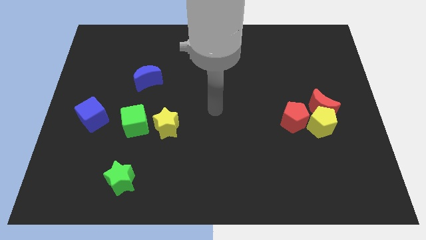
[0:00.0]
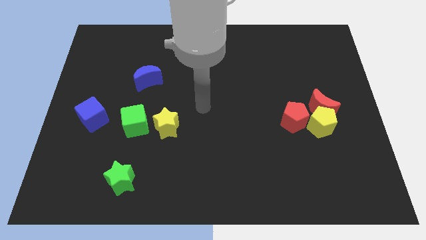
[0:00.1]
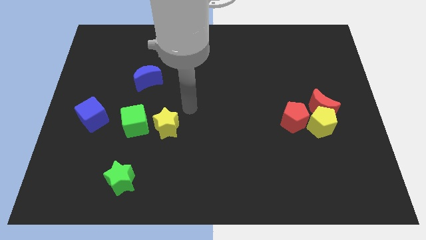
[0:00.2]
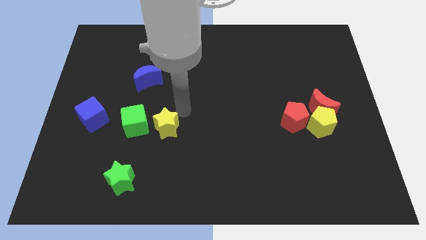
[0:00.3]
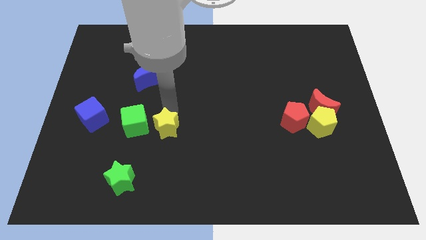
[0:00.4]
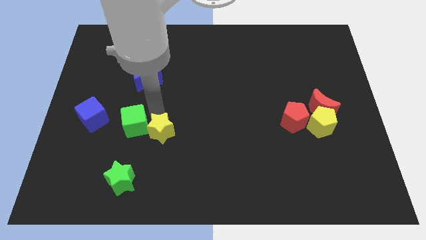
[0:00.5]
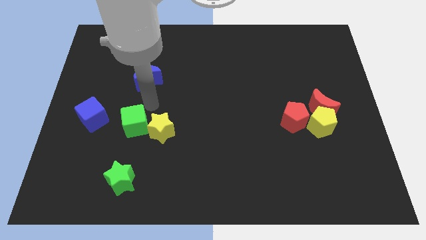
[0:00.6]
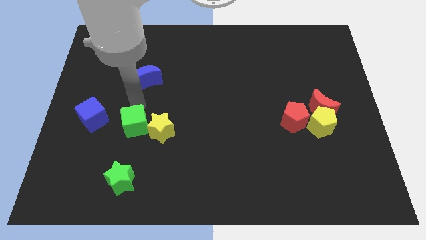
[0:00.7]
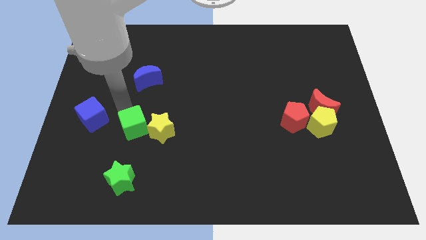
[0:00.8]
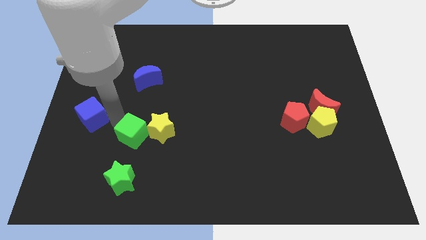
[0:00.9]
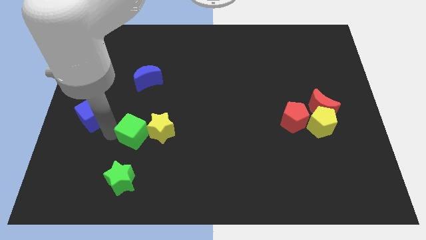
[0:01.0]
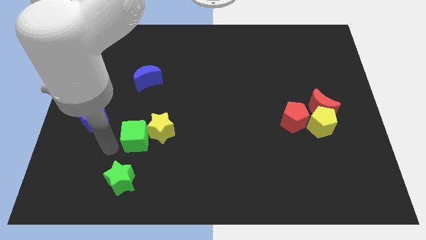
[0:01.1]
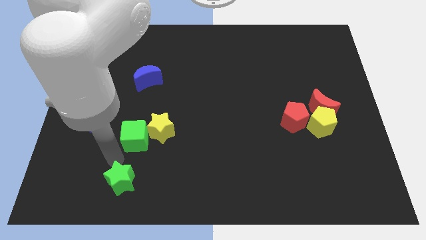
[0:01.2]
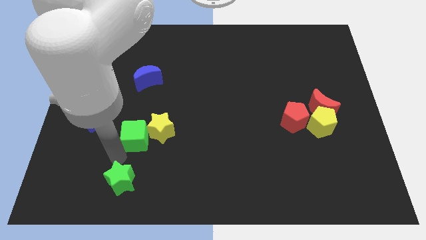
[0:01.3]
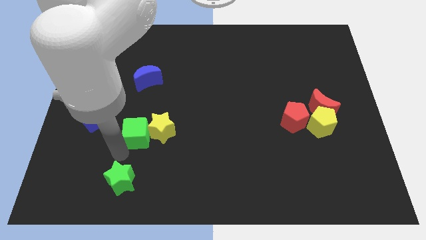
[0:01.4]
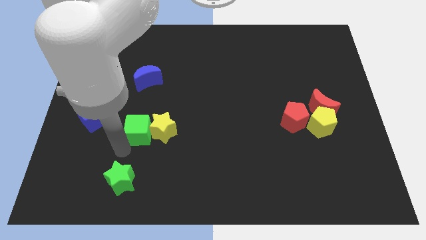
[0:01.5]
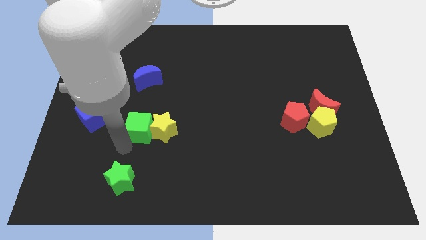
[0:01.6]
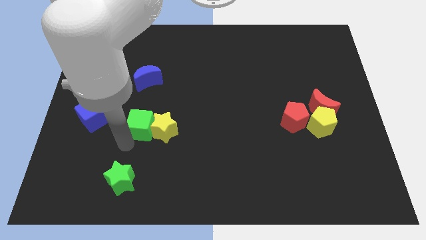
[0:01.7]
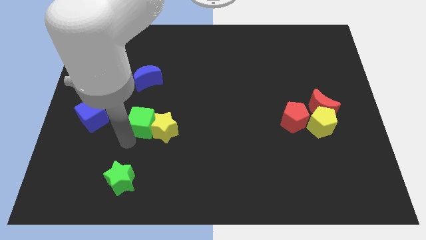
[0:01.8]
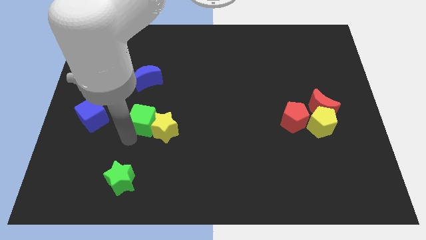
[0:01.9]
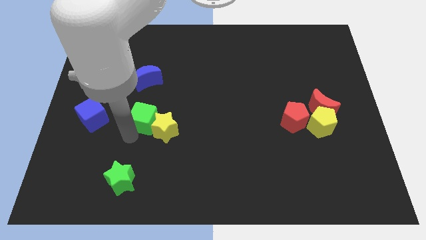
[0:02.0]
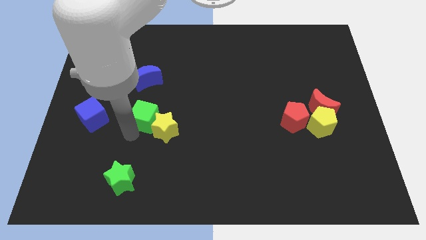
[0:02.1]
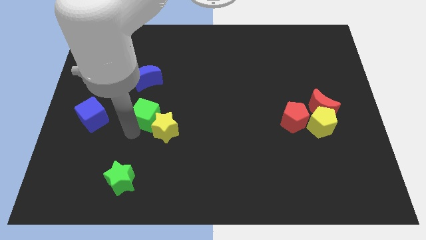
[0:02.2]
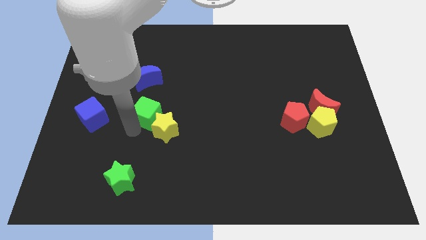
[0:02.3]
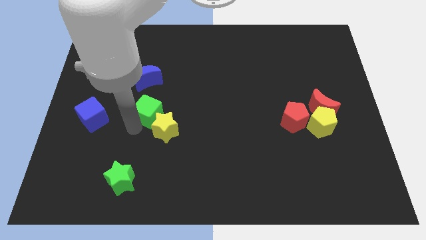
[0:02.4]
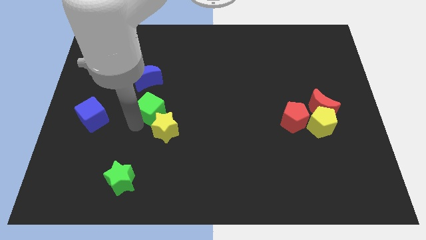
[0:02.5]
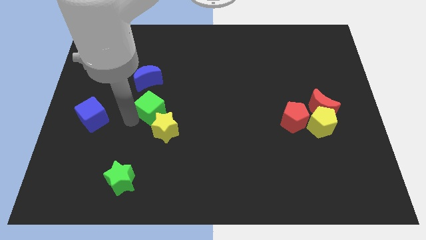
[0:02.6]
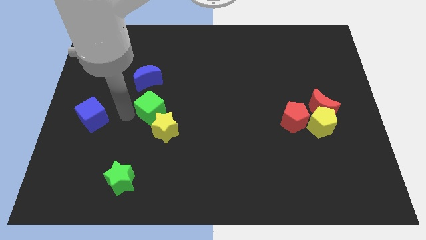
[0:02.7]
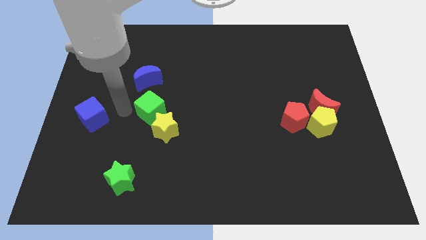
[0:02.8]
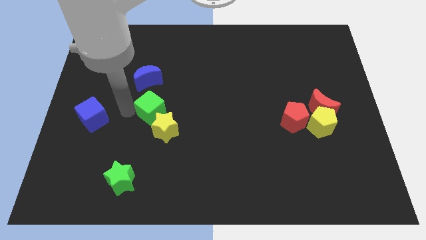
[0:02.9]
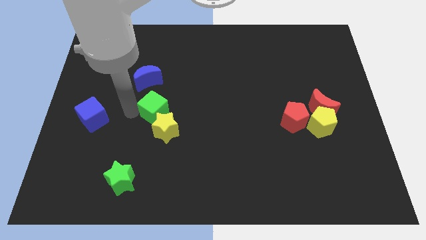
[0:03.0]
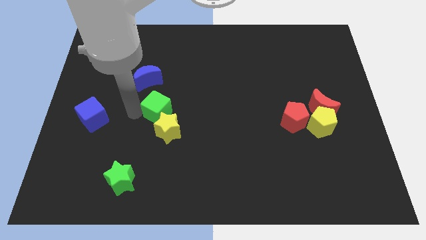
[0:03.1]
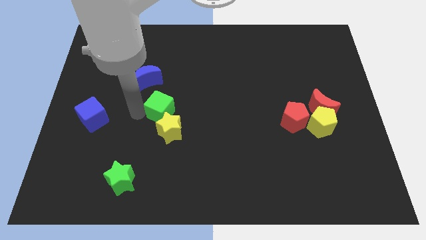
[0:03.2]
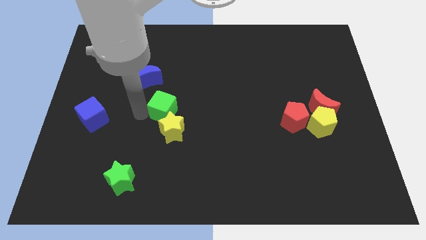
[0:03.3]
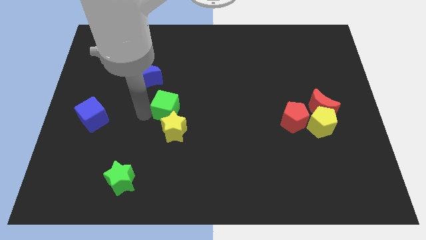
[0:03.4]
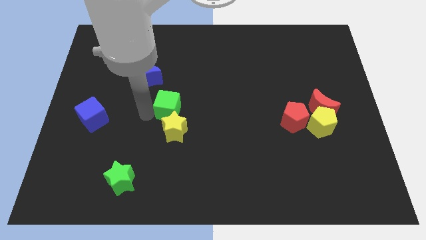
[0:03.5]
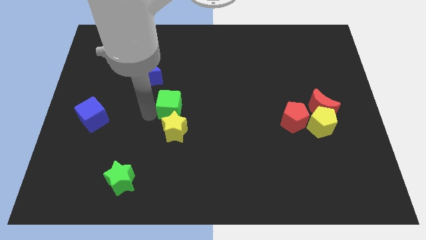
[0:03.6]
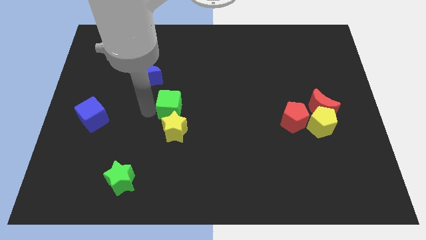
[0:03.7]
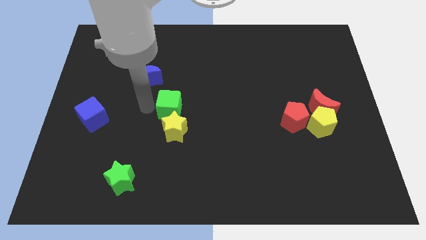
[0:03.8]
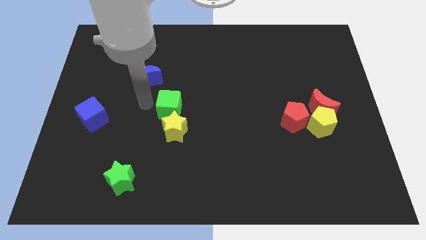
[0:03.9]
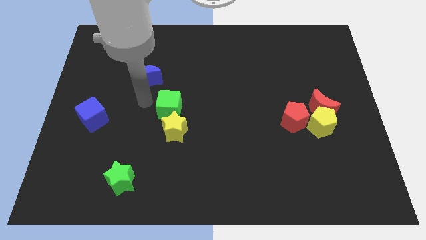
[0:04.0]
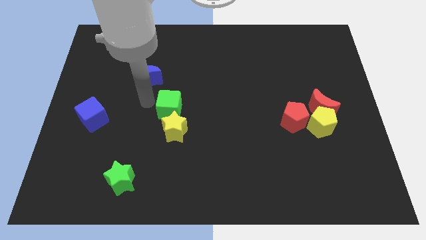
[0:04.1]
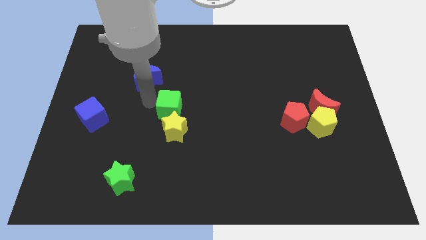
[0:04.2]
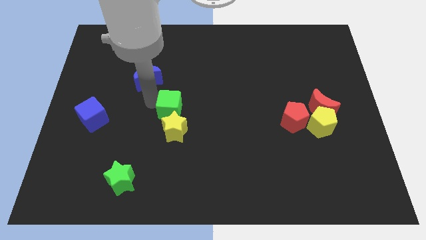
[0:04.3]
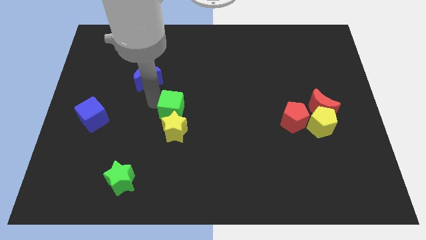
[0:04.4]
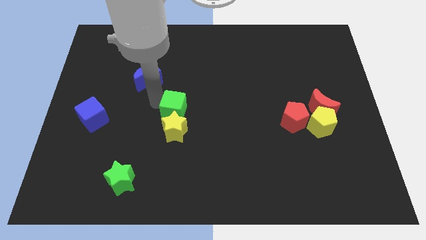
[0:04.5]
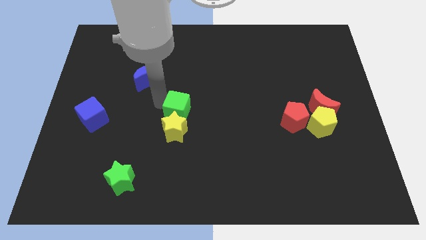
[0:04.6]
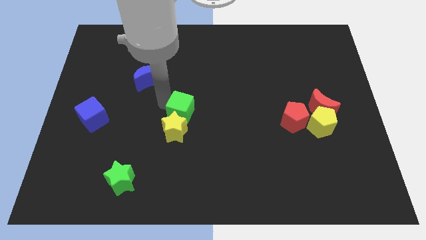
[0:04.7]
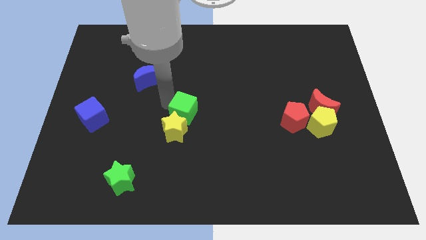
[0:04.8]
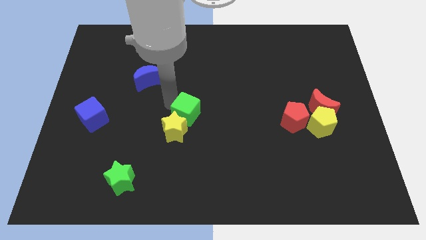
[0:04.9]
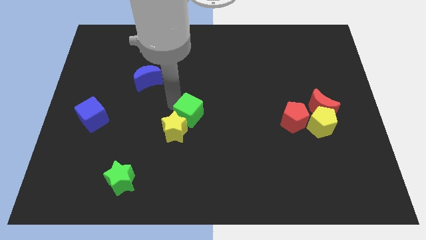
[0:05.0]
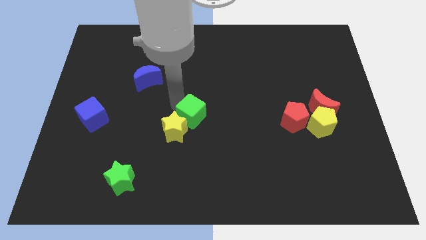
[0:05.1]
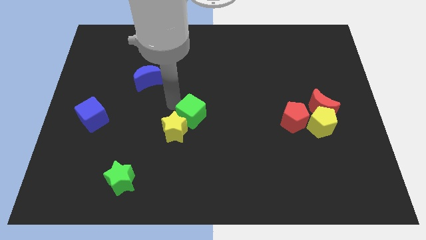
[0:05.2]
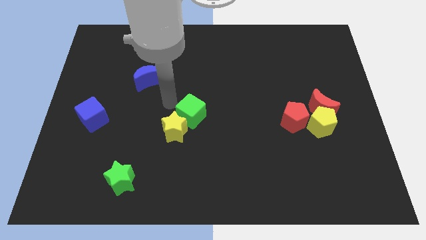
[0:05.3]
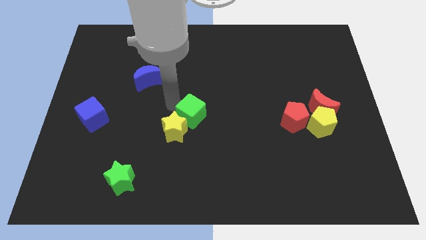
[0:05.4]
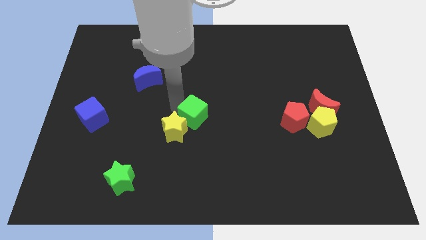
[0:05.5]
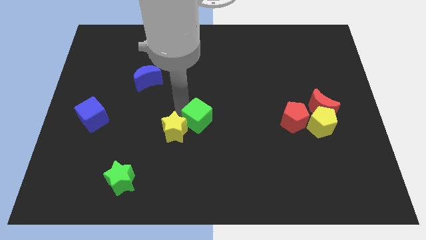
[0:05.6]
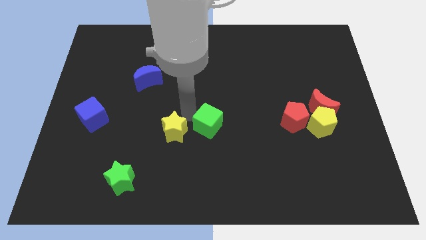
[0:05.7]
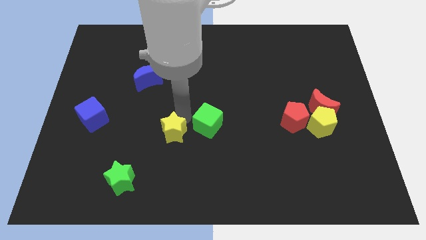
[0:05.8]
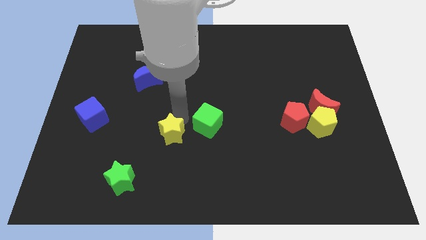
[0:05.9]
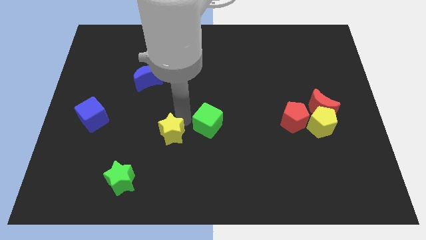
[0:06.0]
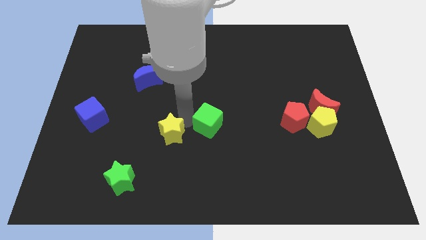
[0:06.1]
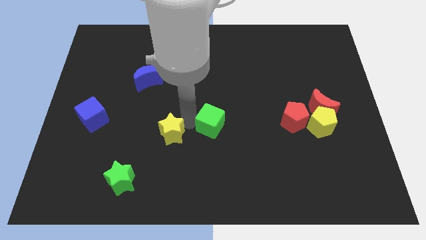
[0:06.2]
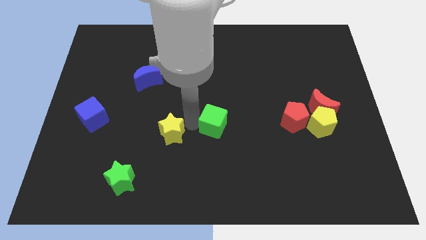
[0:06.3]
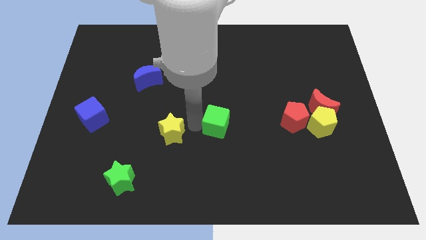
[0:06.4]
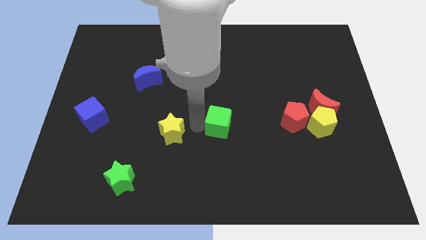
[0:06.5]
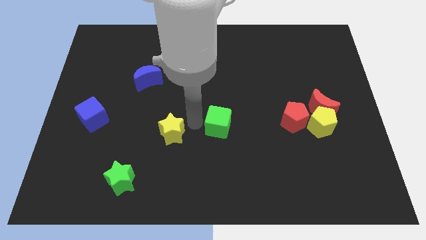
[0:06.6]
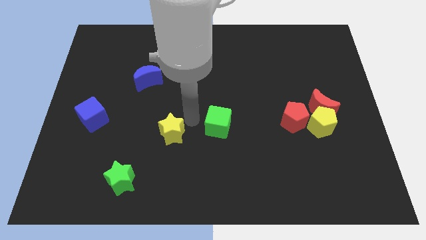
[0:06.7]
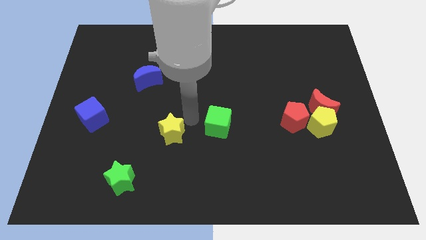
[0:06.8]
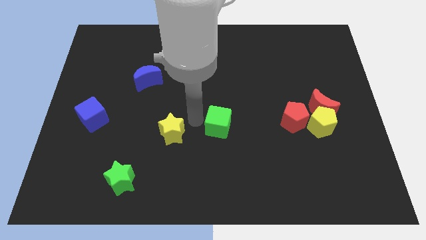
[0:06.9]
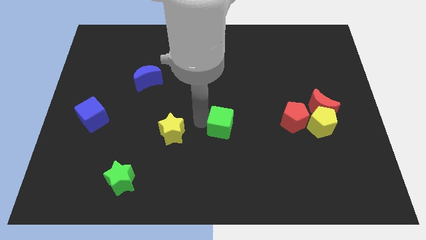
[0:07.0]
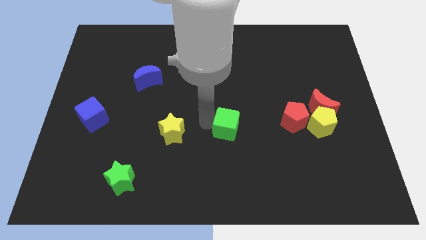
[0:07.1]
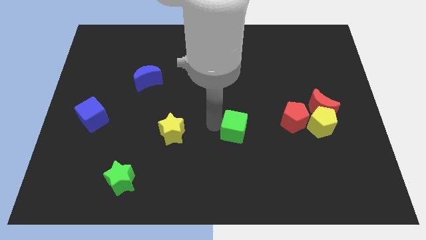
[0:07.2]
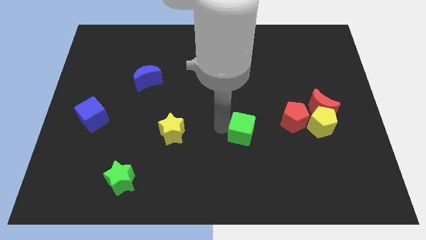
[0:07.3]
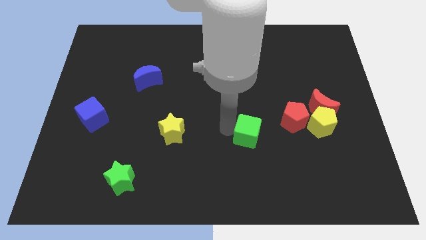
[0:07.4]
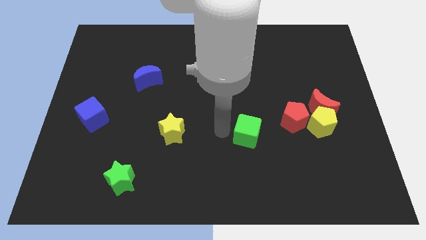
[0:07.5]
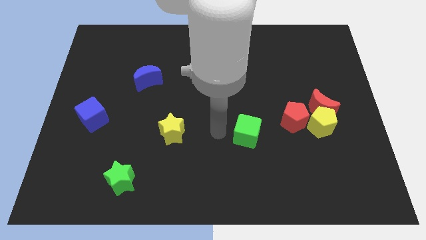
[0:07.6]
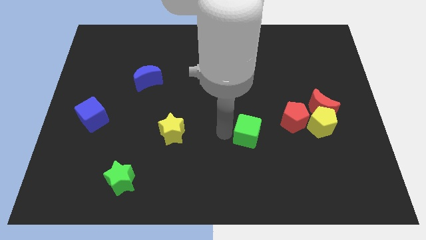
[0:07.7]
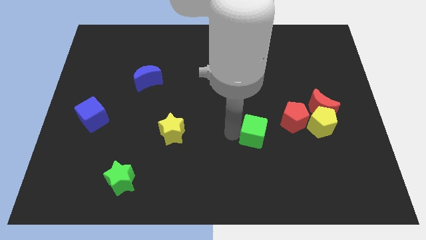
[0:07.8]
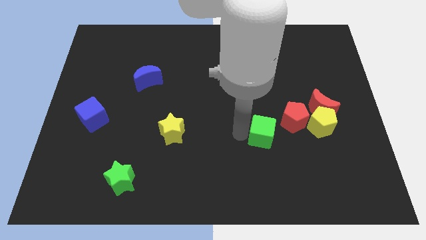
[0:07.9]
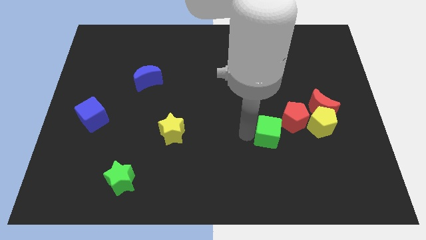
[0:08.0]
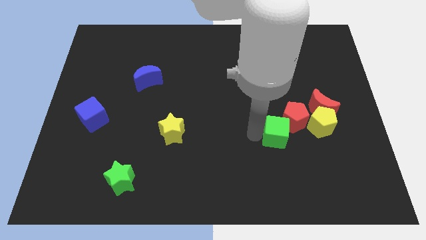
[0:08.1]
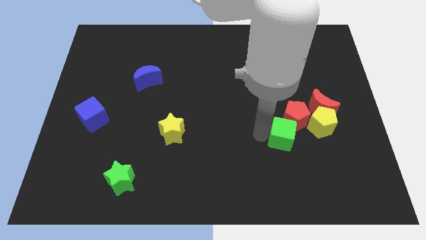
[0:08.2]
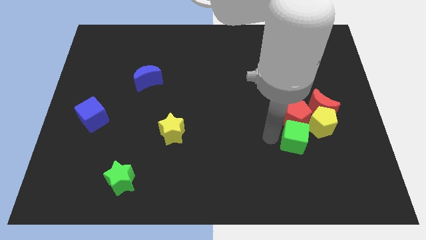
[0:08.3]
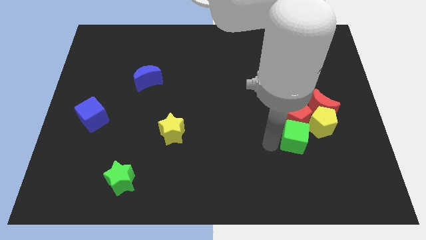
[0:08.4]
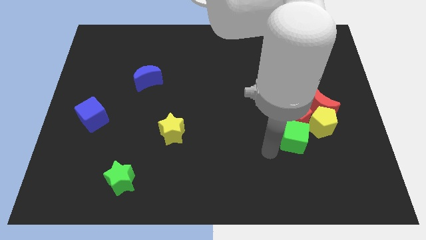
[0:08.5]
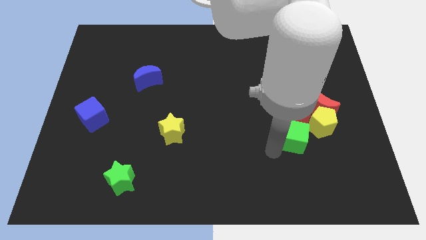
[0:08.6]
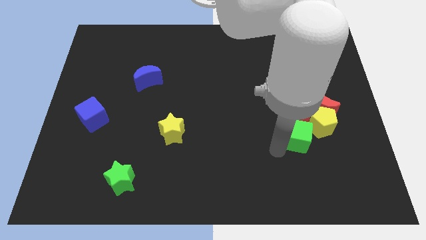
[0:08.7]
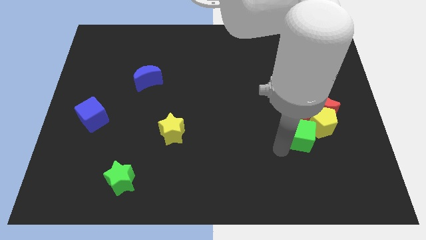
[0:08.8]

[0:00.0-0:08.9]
slide the green cube close to the yellow pentagon
